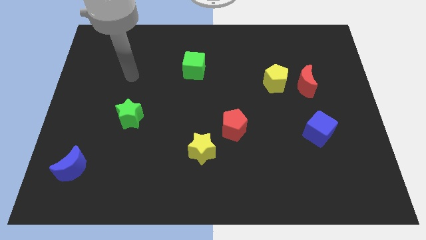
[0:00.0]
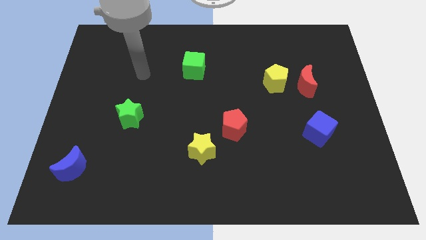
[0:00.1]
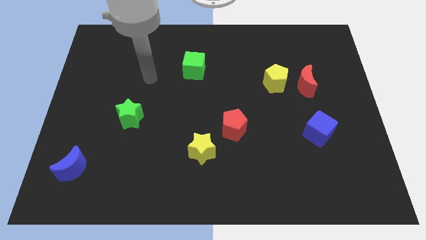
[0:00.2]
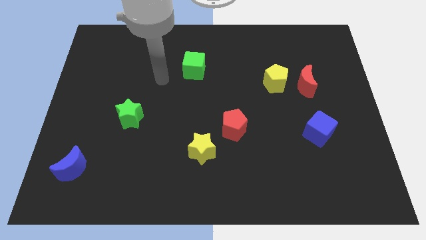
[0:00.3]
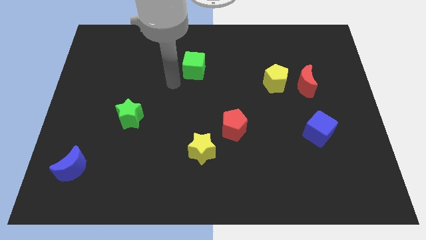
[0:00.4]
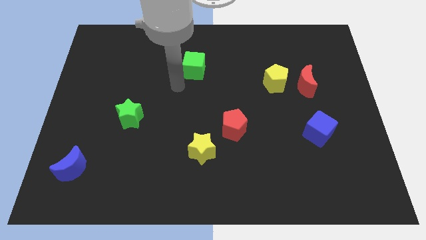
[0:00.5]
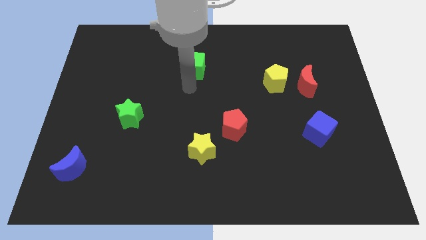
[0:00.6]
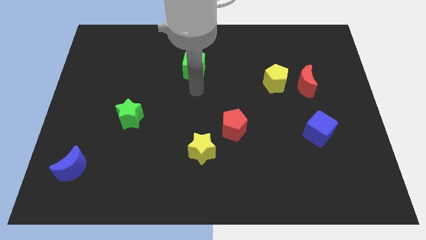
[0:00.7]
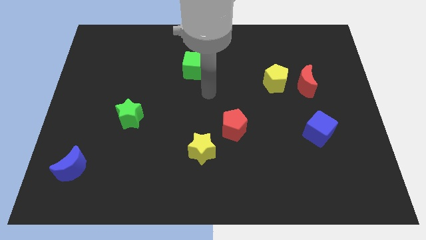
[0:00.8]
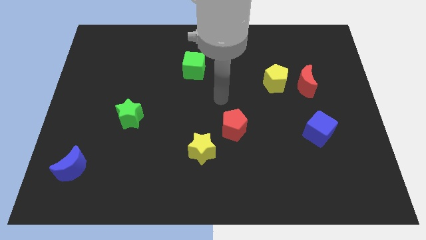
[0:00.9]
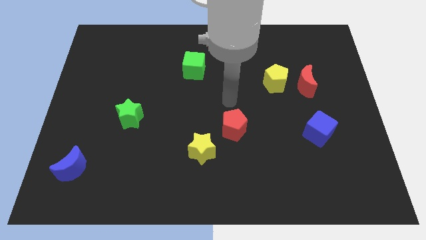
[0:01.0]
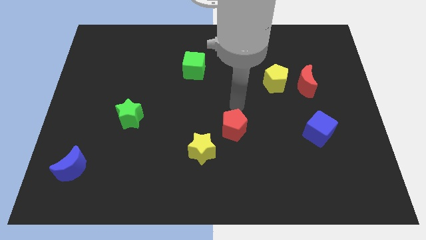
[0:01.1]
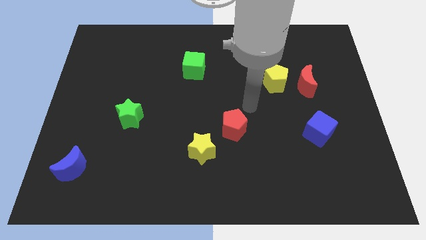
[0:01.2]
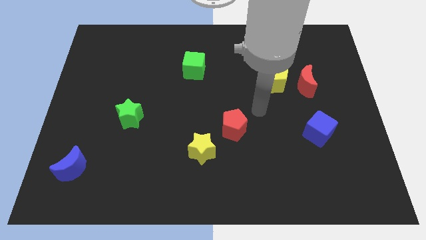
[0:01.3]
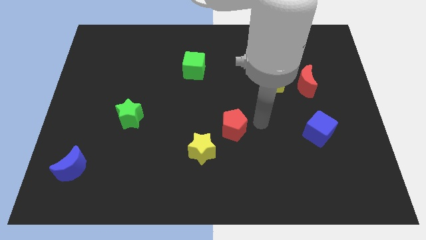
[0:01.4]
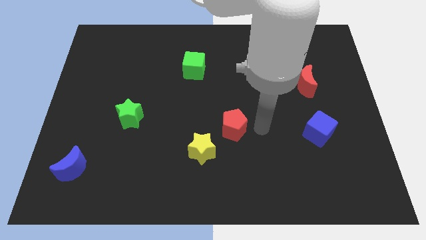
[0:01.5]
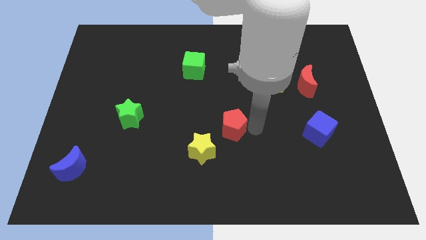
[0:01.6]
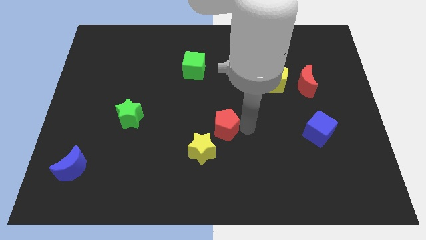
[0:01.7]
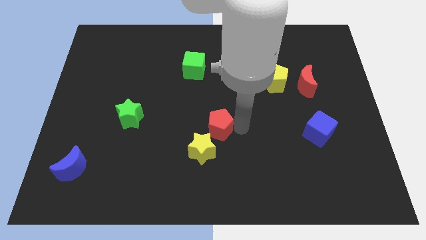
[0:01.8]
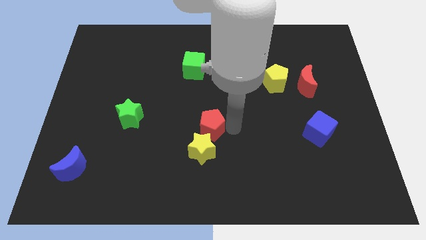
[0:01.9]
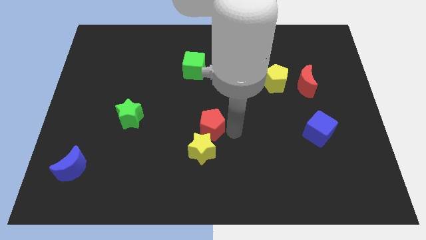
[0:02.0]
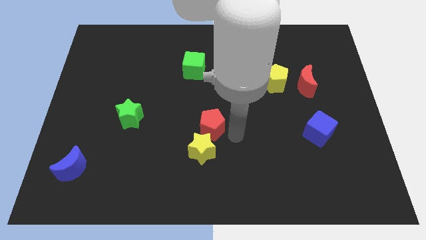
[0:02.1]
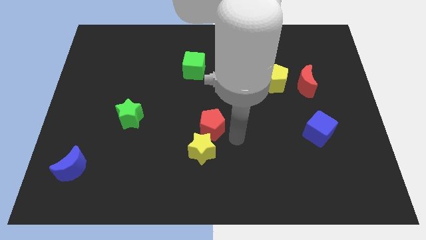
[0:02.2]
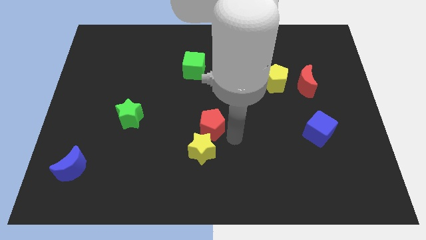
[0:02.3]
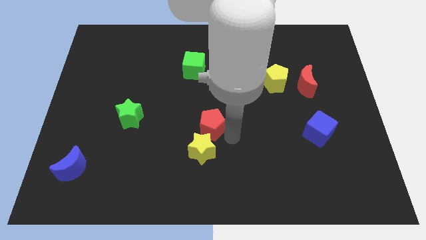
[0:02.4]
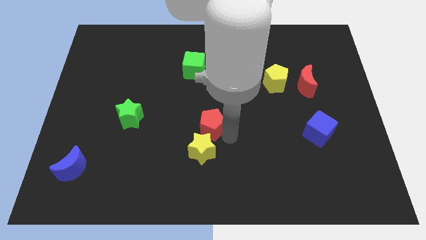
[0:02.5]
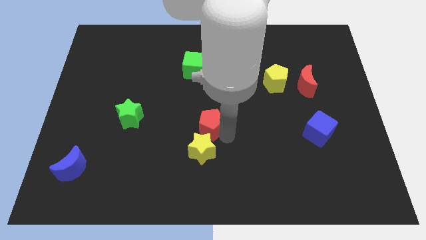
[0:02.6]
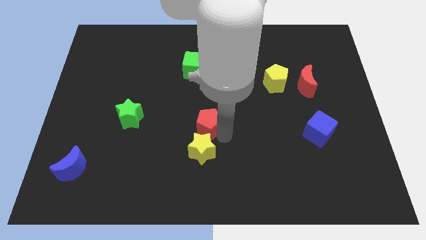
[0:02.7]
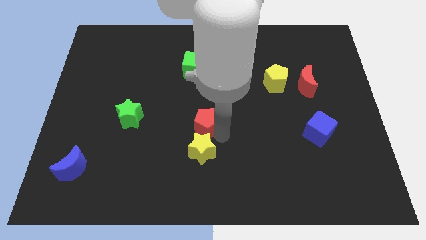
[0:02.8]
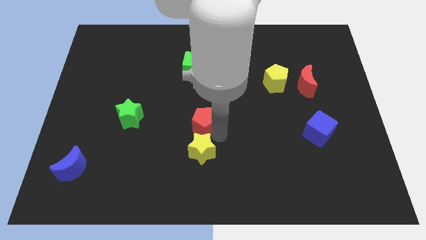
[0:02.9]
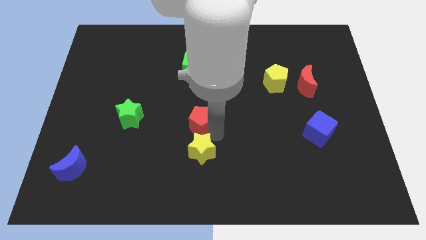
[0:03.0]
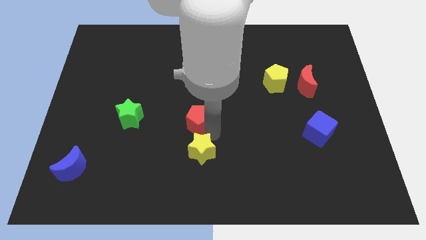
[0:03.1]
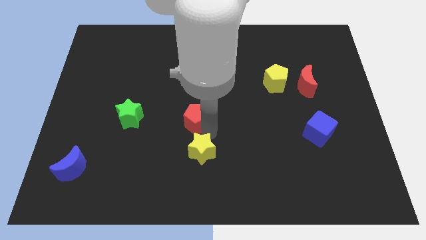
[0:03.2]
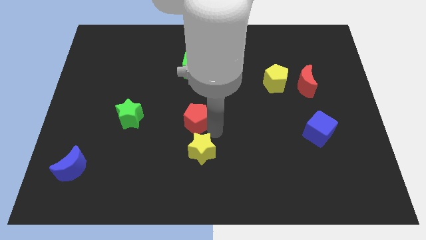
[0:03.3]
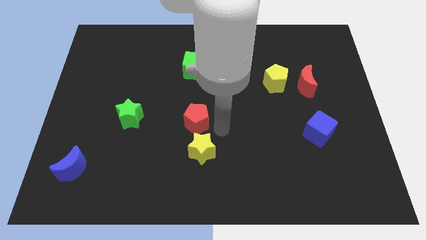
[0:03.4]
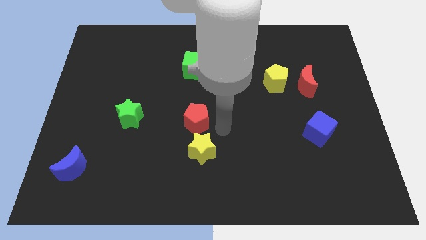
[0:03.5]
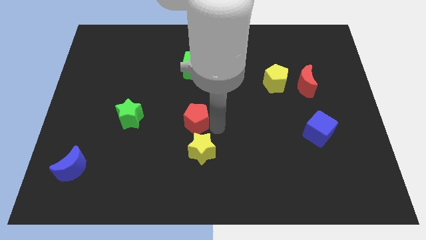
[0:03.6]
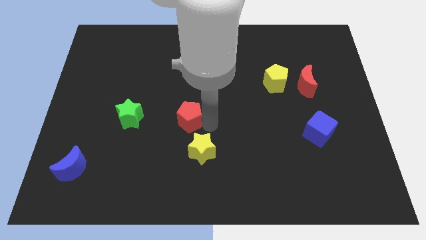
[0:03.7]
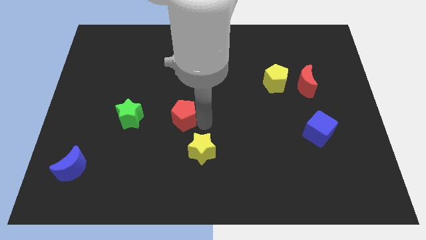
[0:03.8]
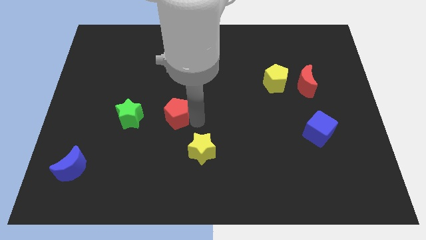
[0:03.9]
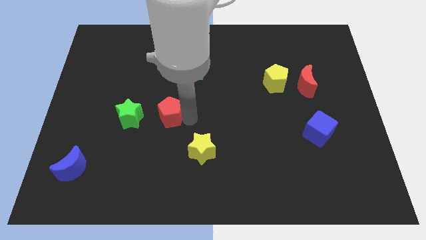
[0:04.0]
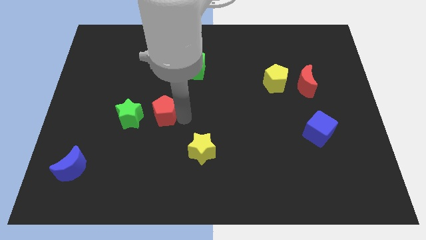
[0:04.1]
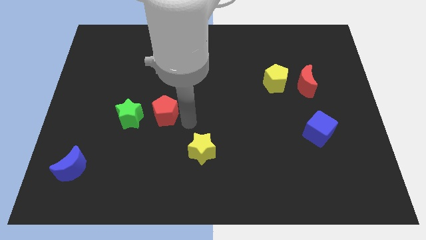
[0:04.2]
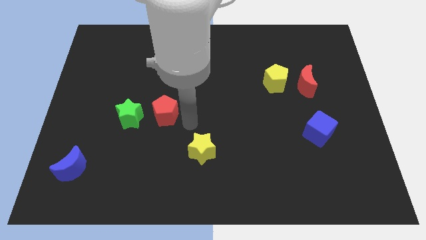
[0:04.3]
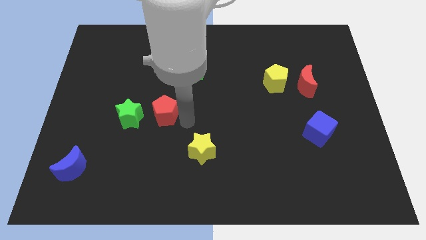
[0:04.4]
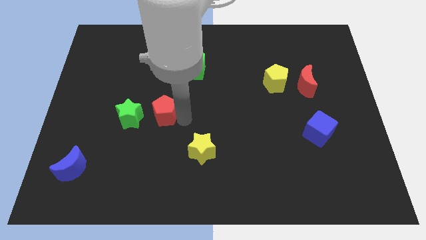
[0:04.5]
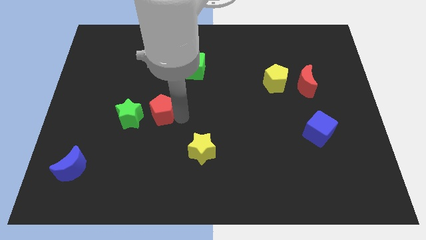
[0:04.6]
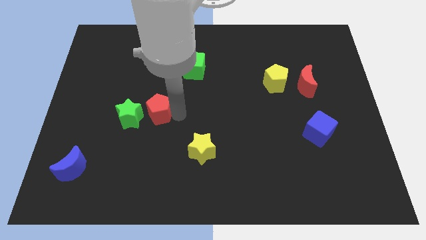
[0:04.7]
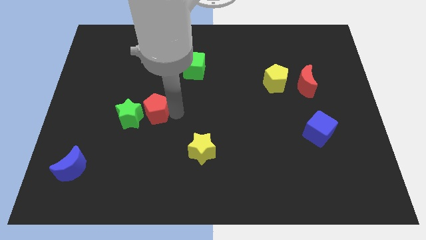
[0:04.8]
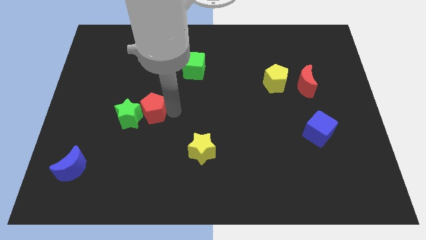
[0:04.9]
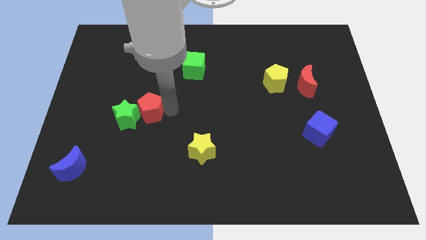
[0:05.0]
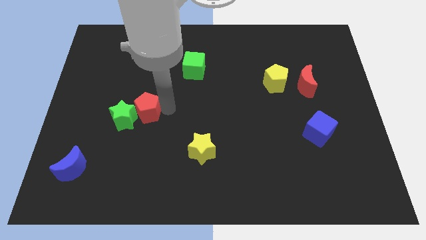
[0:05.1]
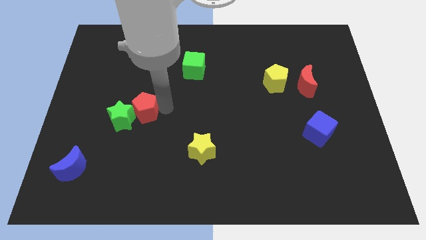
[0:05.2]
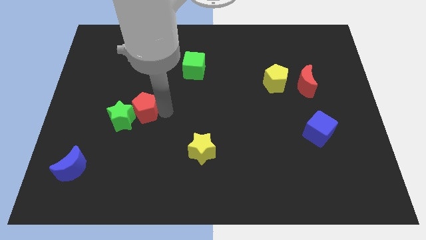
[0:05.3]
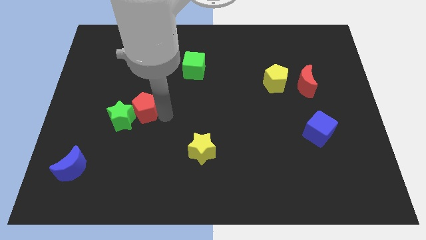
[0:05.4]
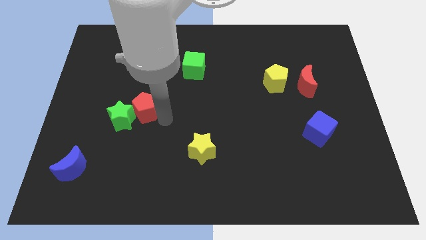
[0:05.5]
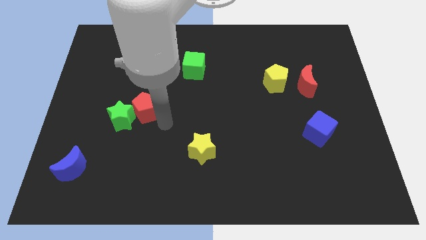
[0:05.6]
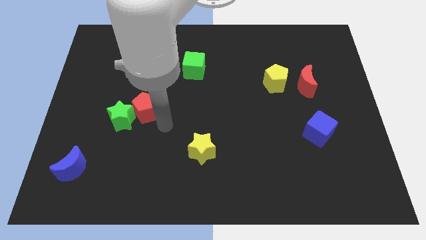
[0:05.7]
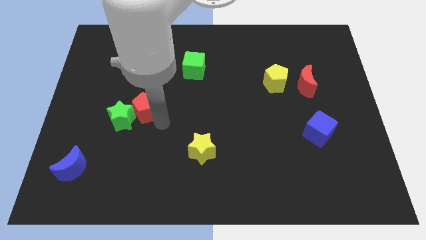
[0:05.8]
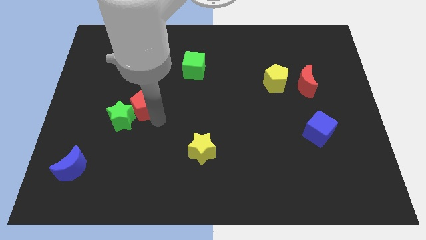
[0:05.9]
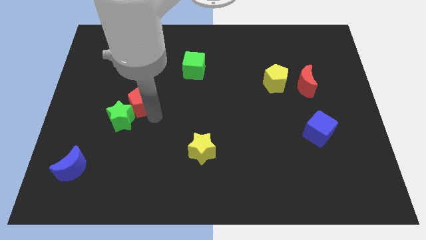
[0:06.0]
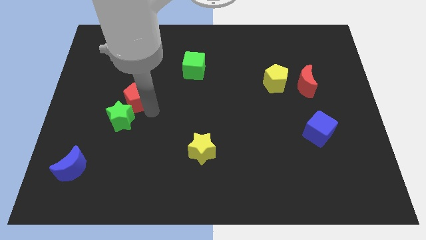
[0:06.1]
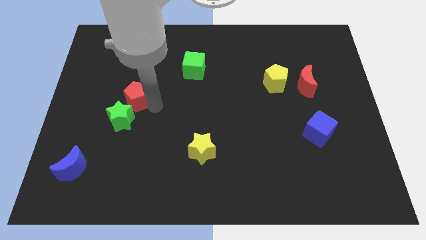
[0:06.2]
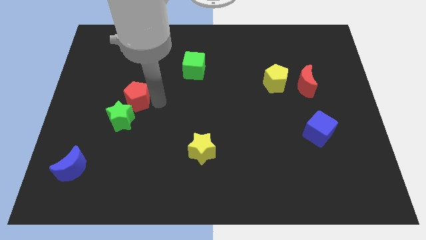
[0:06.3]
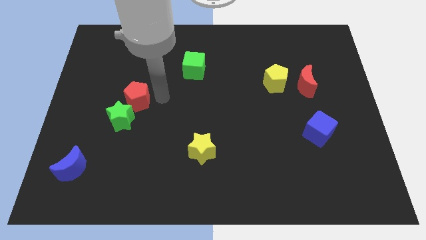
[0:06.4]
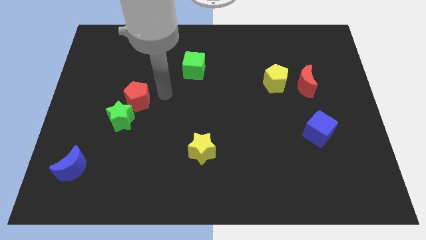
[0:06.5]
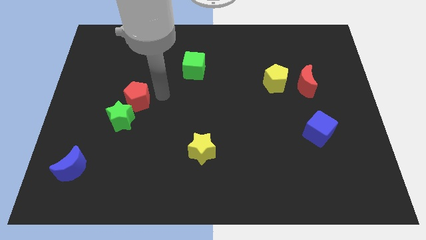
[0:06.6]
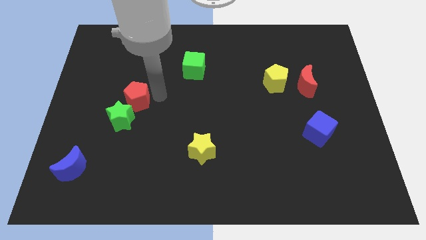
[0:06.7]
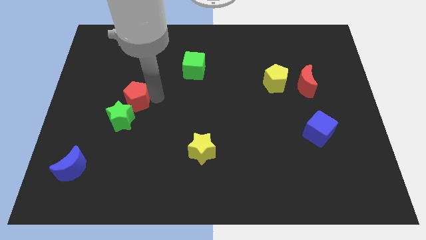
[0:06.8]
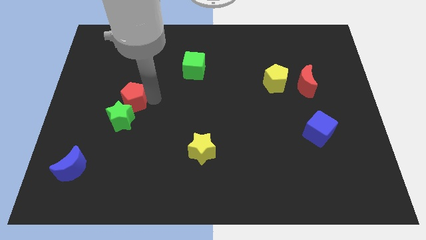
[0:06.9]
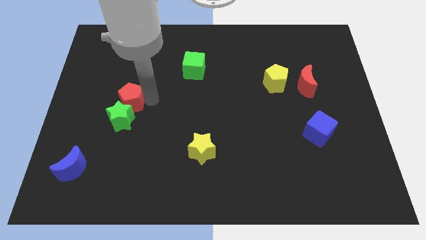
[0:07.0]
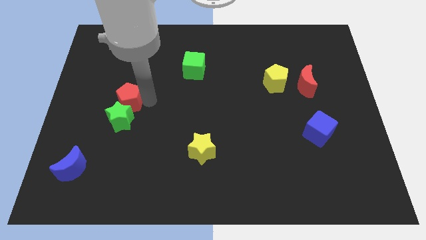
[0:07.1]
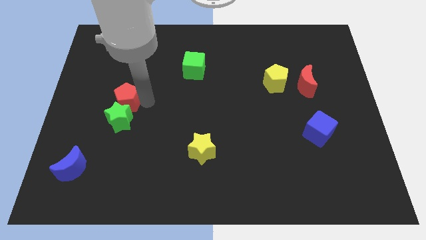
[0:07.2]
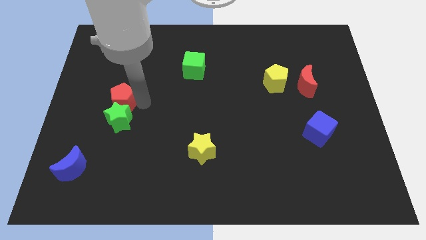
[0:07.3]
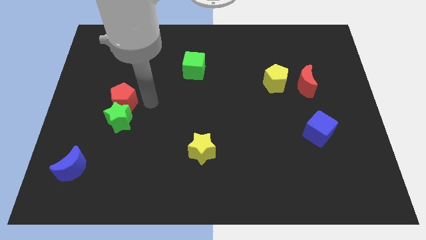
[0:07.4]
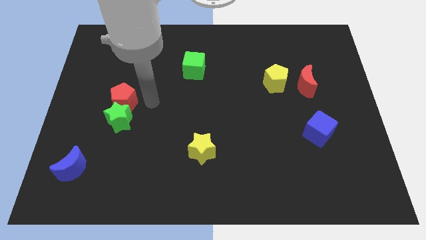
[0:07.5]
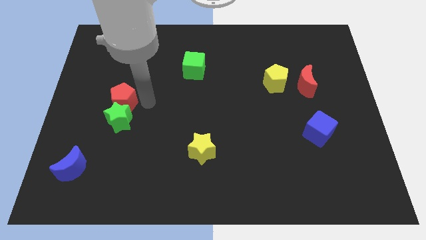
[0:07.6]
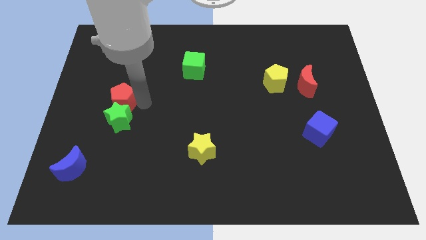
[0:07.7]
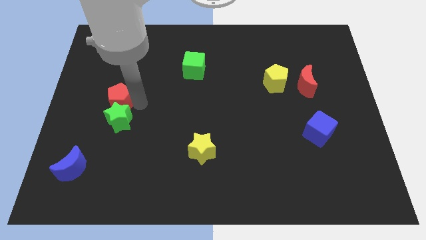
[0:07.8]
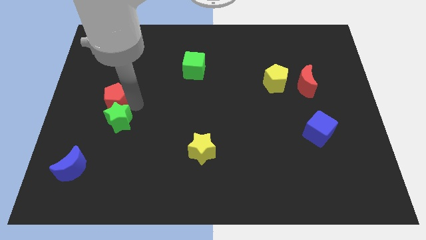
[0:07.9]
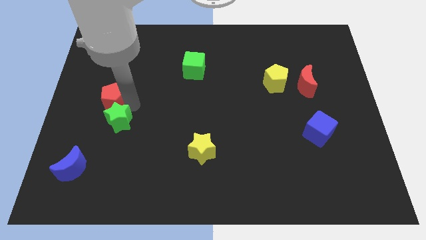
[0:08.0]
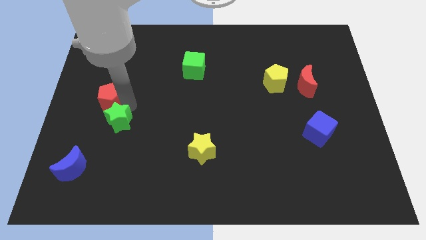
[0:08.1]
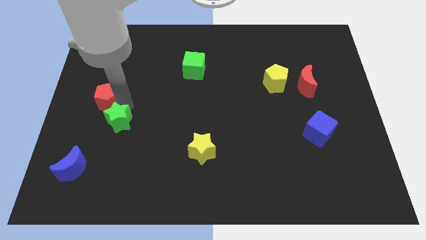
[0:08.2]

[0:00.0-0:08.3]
push the red pentagon to the left side of the board
